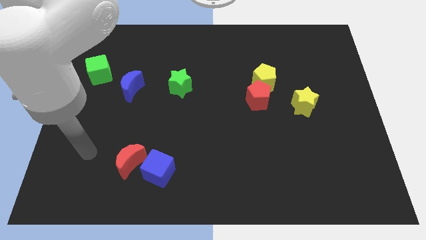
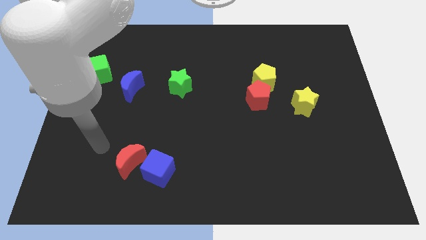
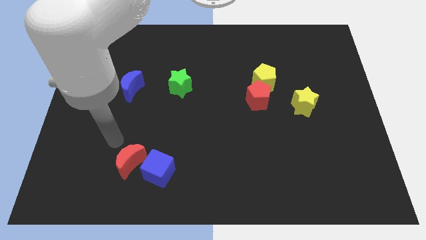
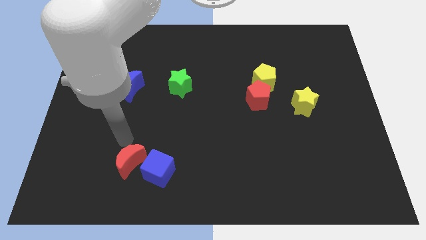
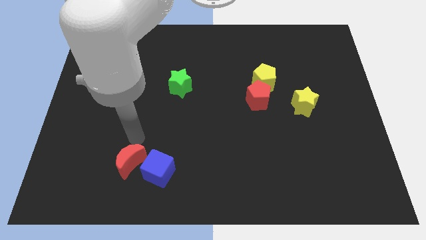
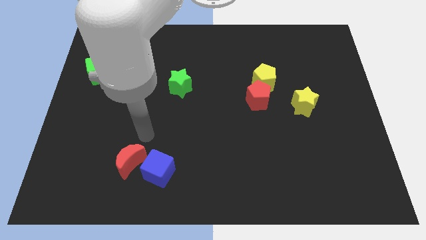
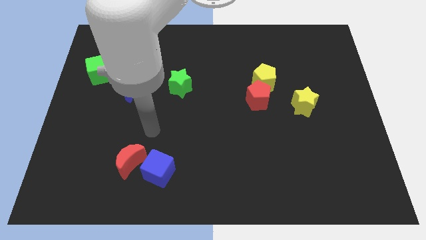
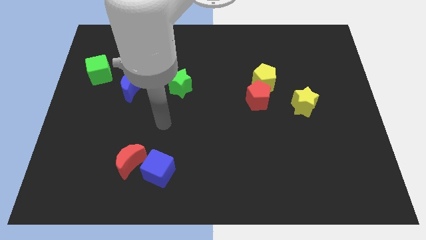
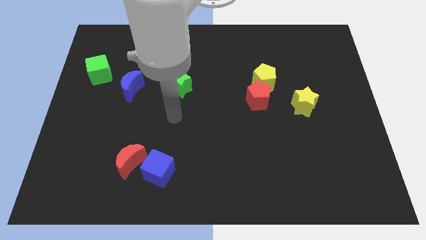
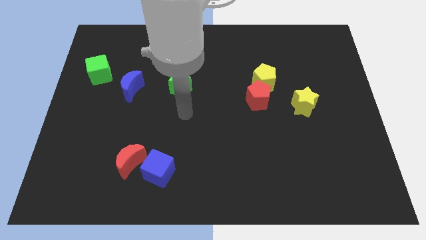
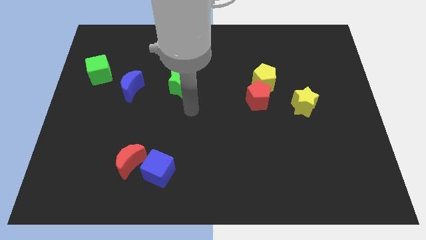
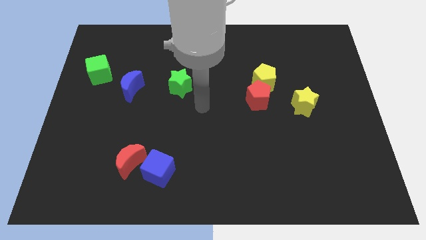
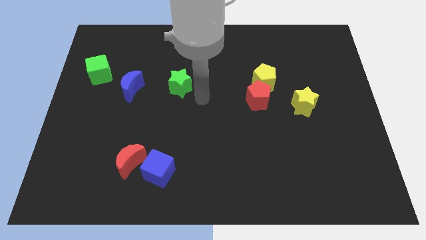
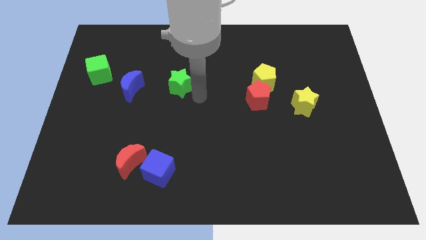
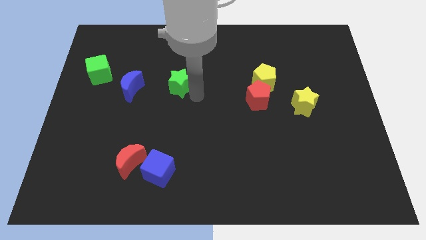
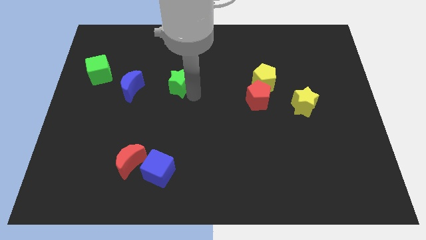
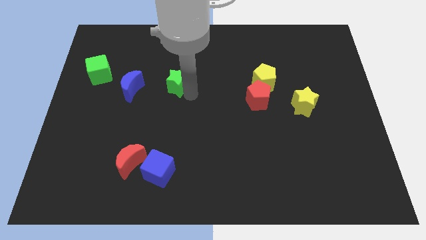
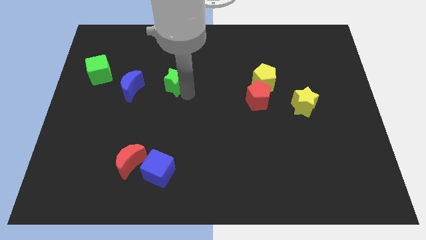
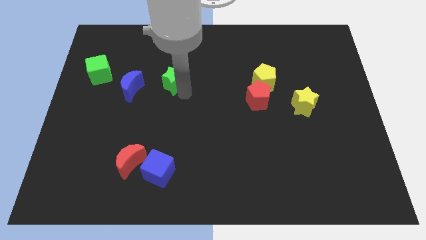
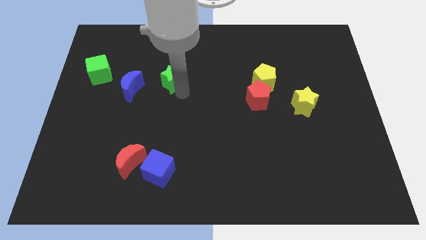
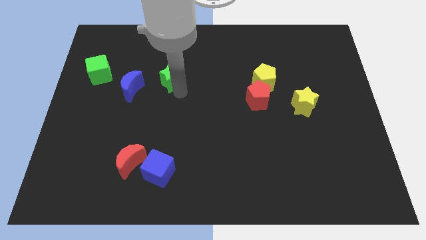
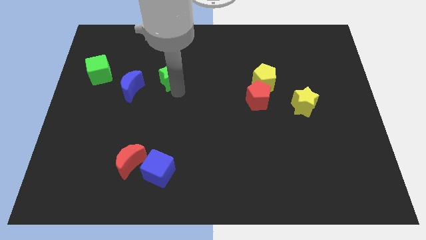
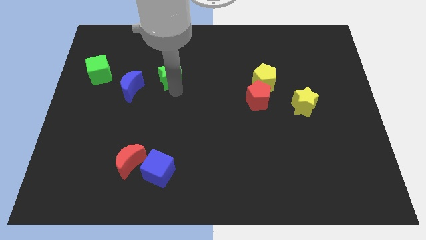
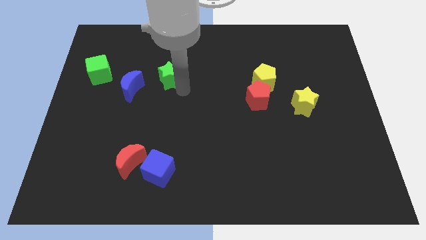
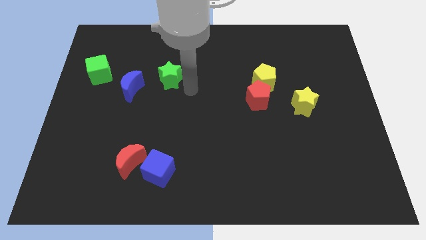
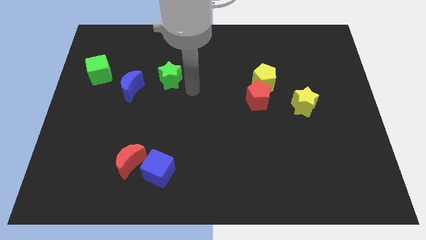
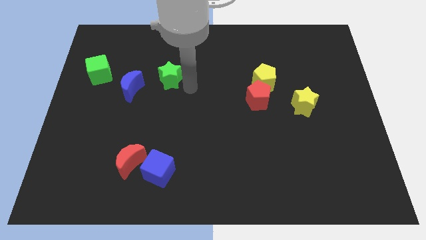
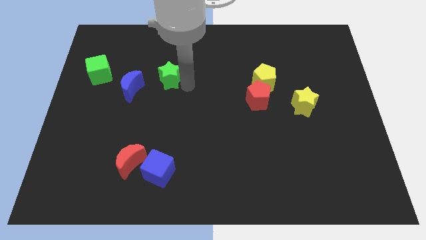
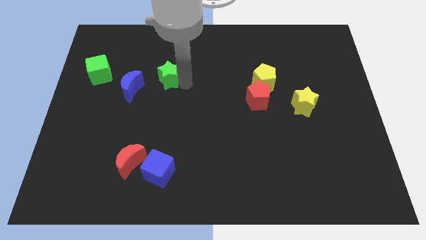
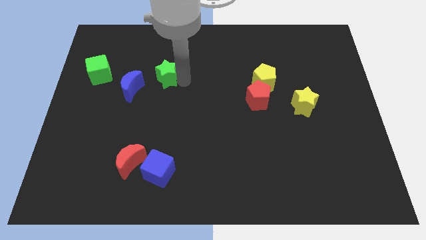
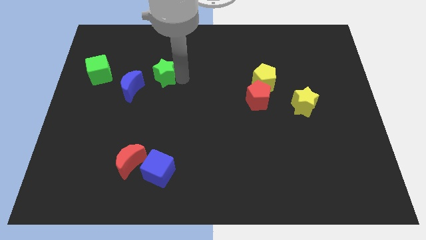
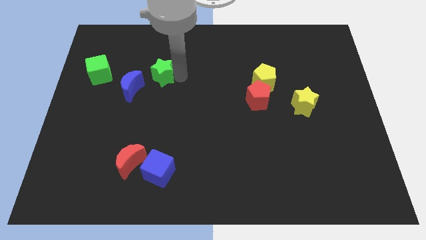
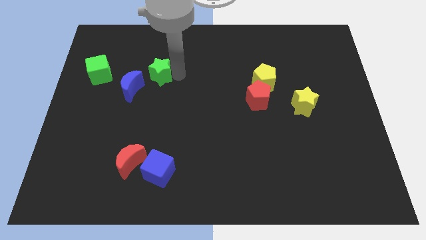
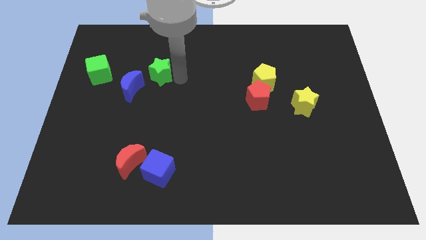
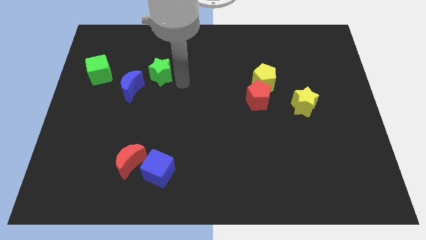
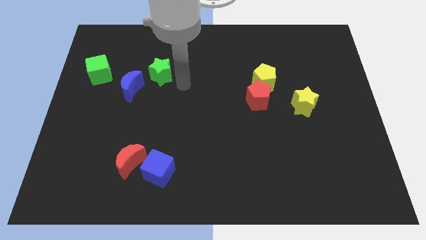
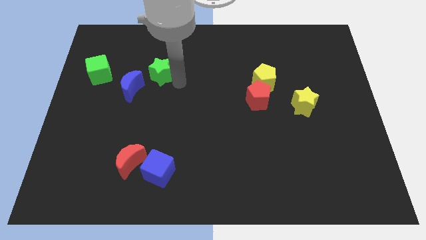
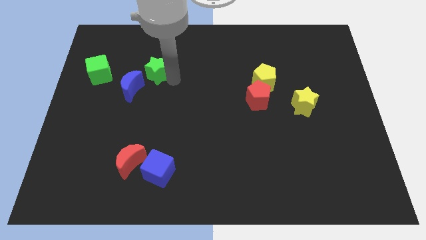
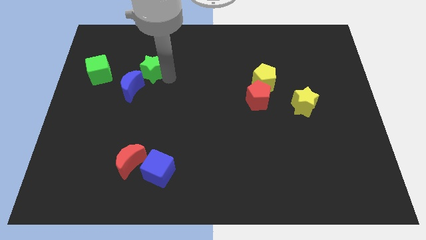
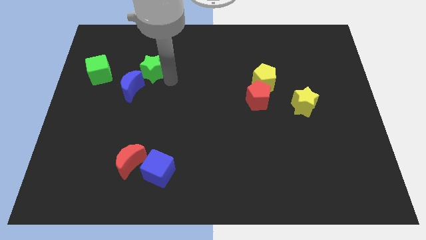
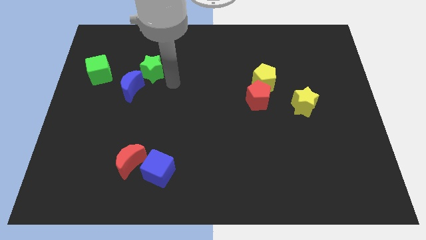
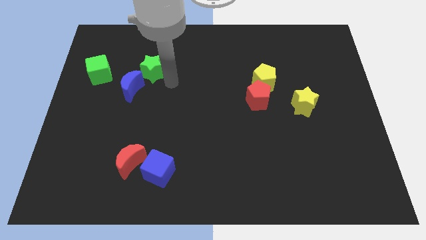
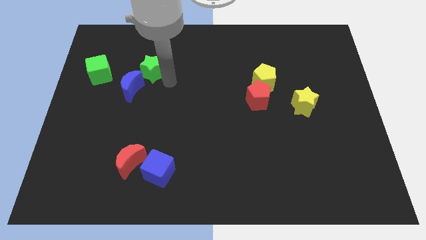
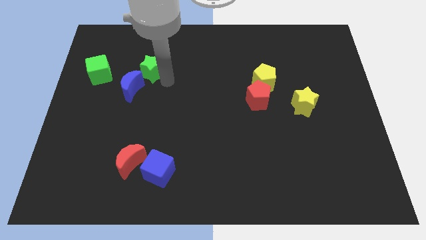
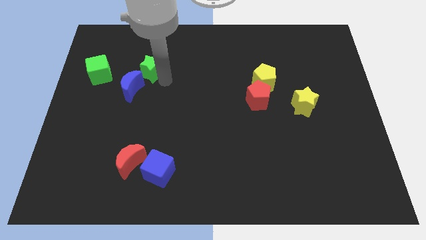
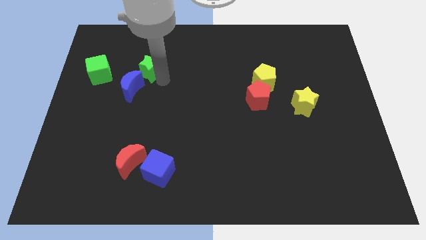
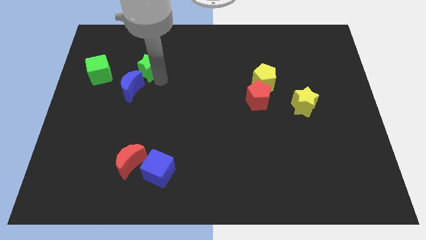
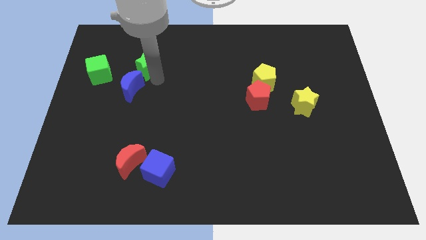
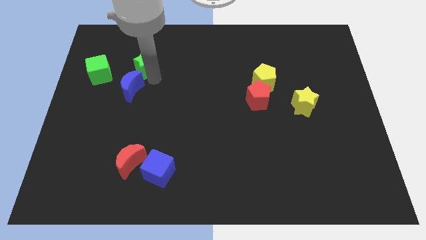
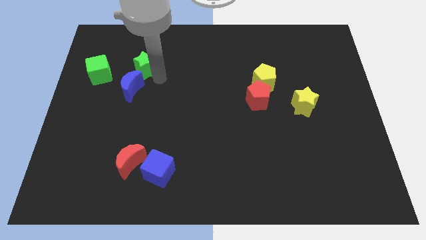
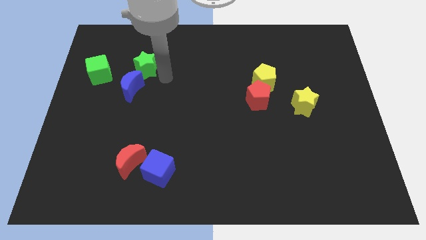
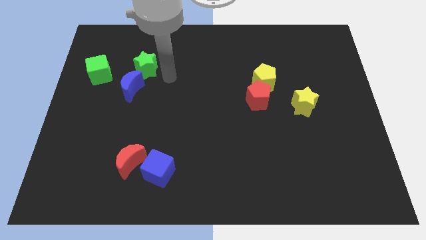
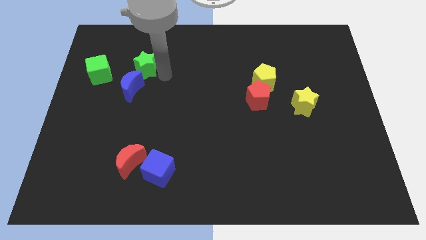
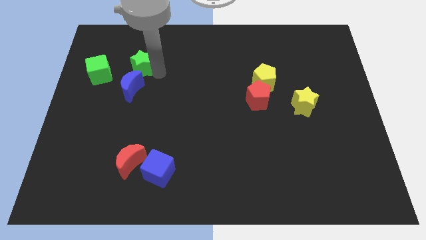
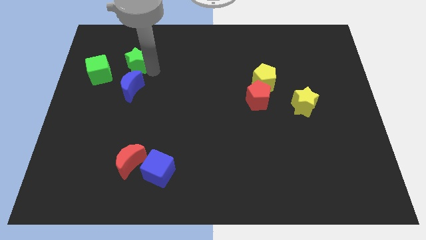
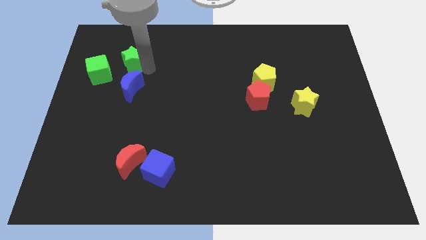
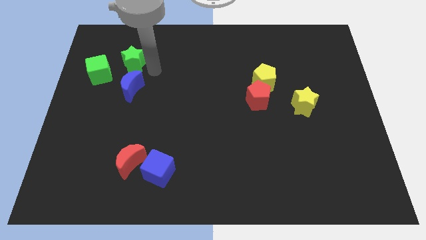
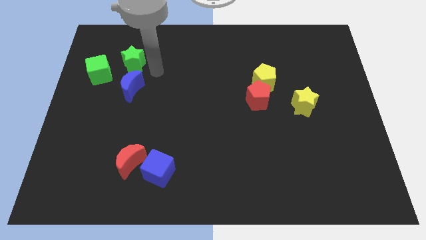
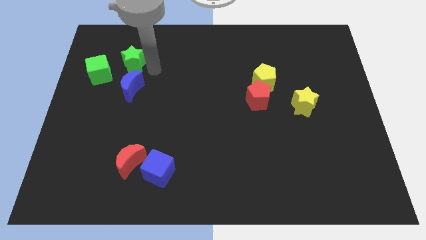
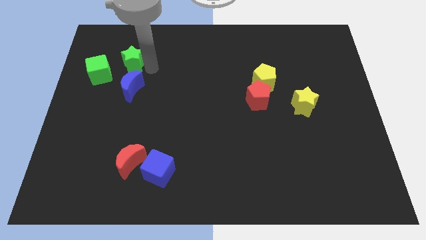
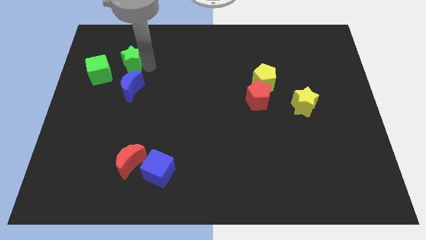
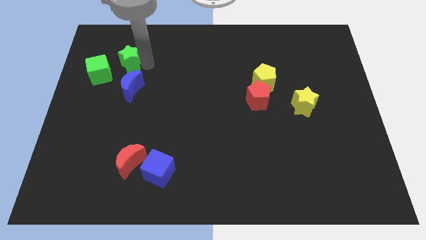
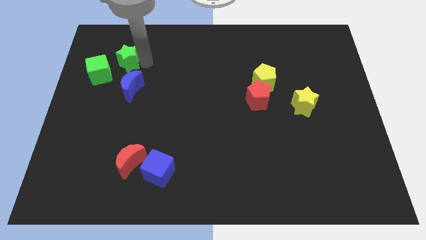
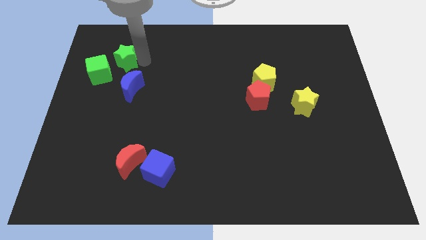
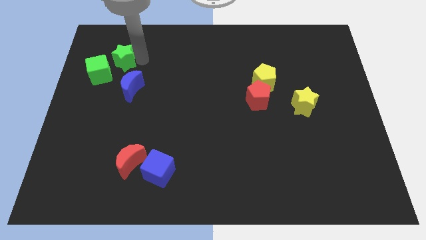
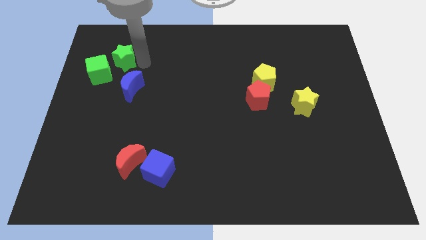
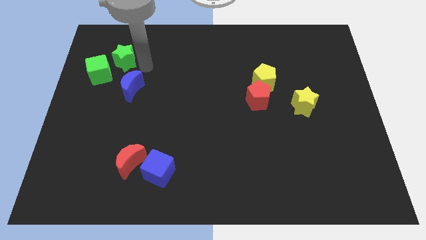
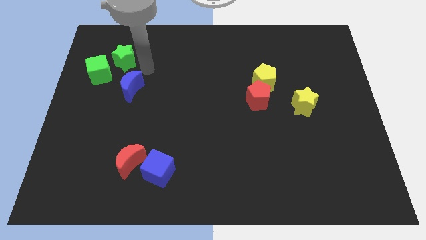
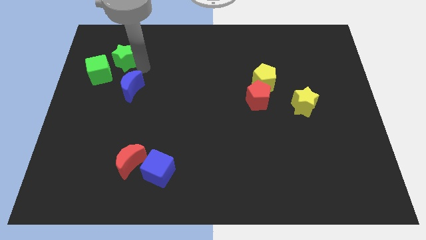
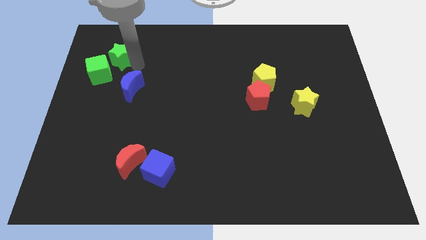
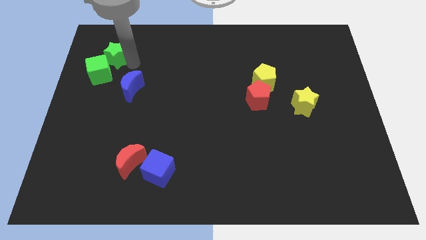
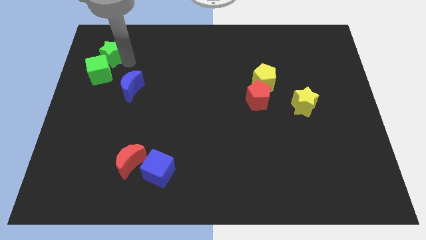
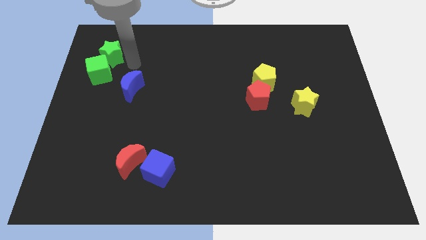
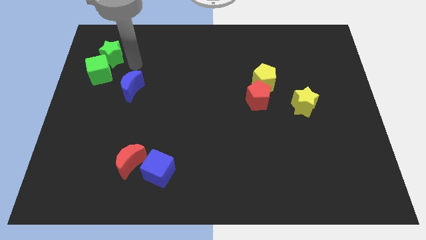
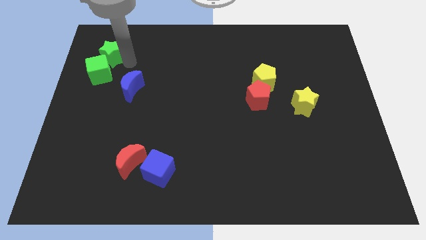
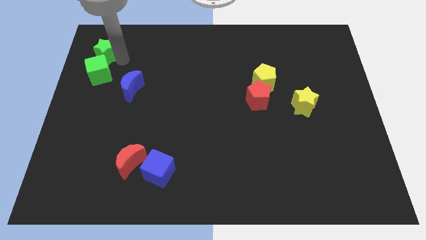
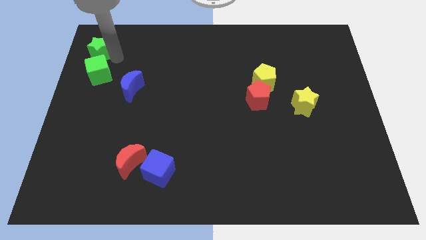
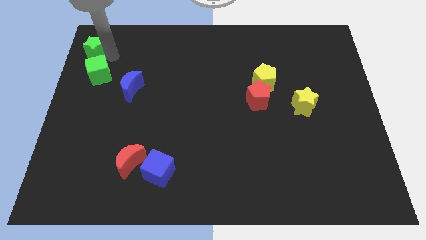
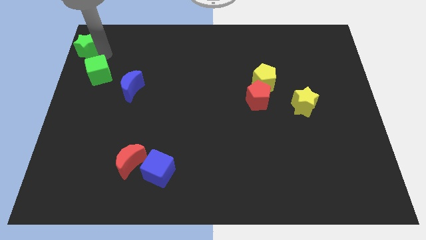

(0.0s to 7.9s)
move the green star to the top left
